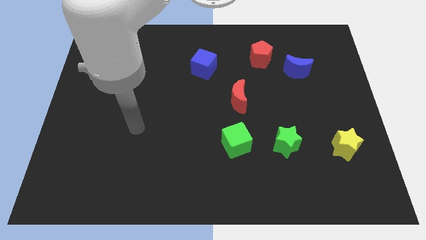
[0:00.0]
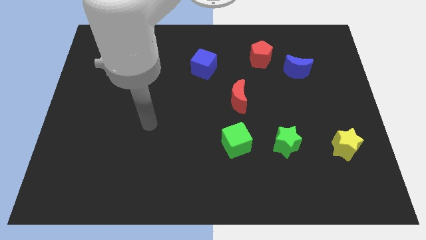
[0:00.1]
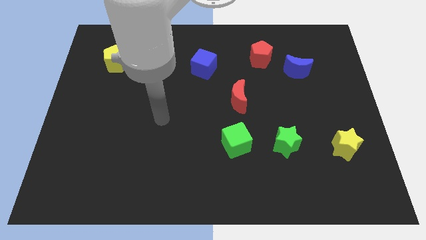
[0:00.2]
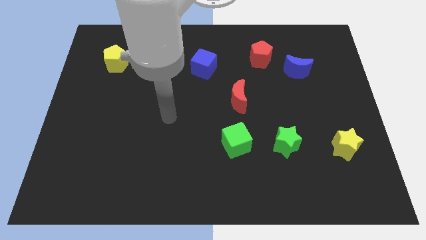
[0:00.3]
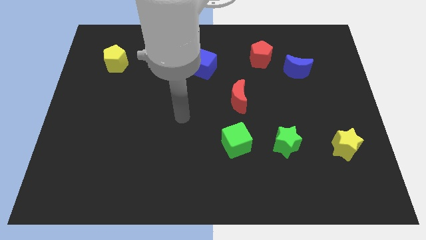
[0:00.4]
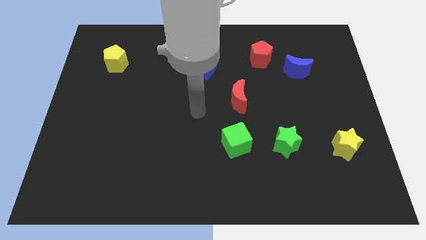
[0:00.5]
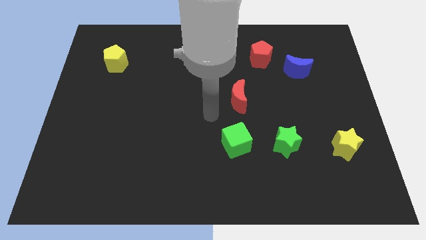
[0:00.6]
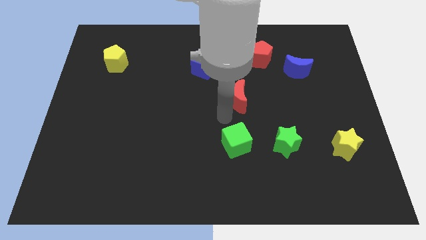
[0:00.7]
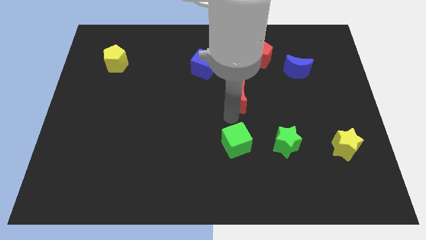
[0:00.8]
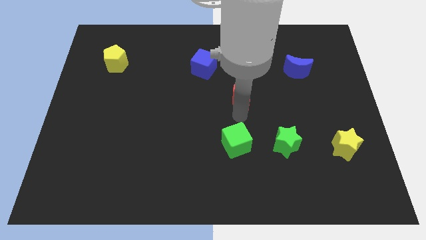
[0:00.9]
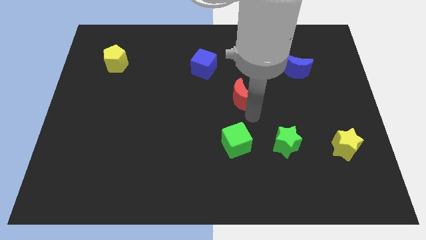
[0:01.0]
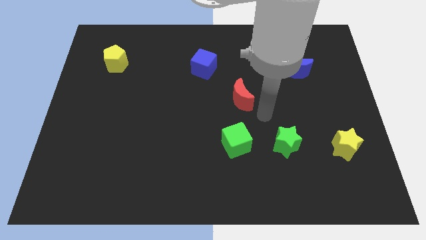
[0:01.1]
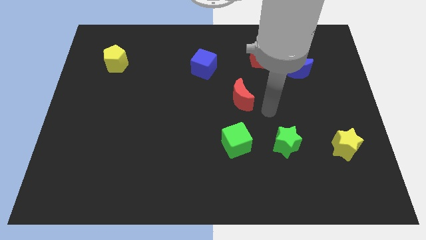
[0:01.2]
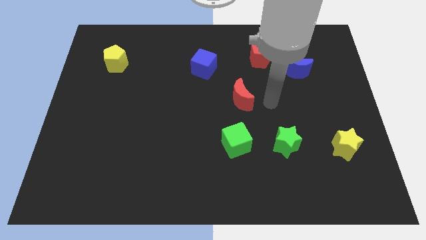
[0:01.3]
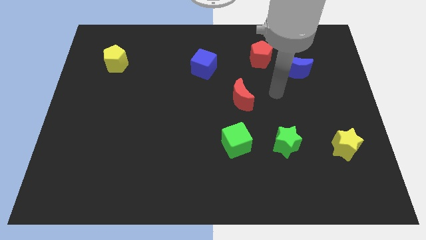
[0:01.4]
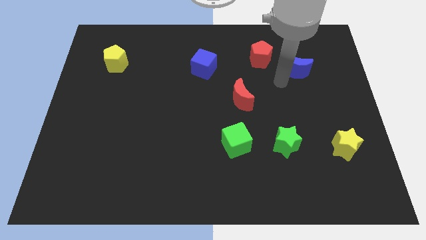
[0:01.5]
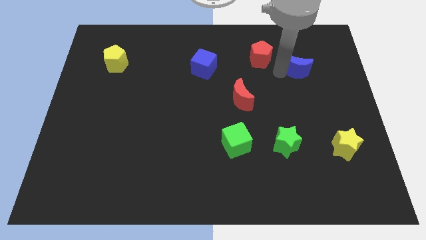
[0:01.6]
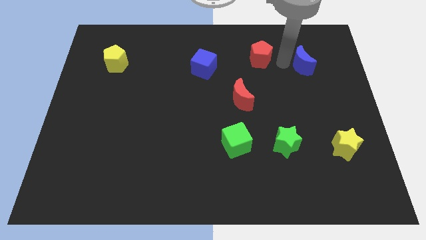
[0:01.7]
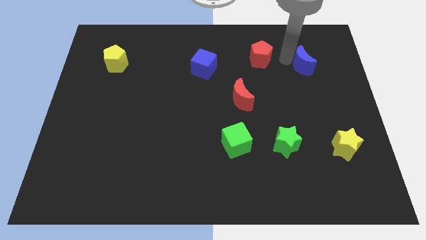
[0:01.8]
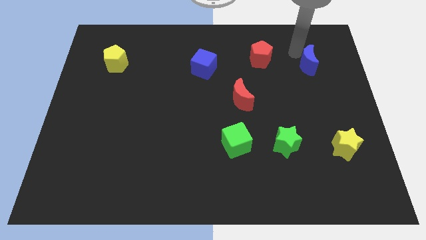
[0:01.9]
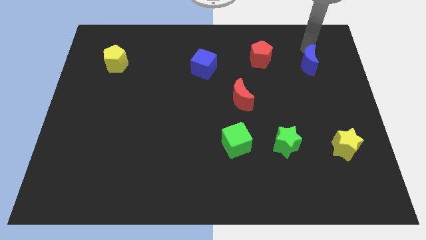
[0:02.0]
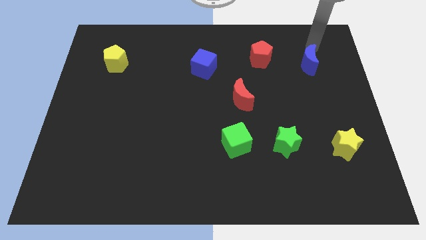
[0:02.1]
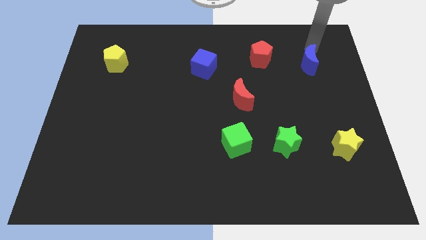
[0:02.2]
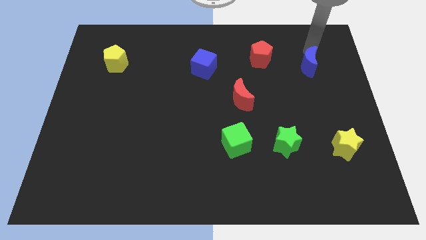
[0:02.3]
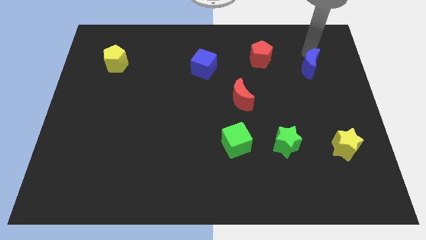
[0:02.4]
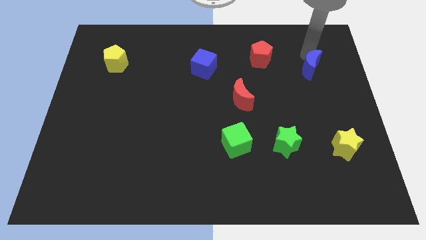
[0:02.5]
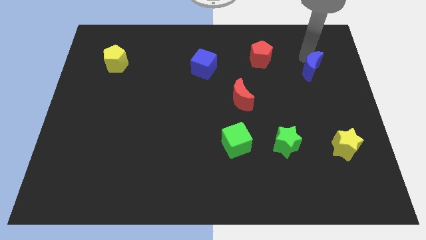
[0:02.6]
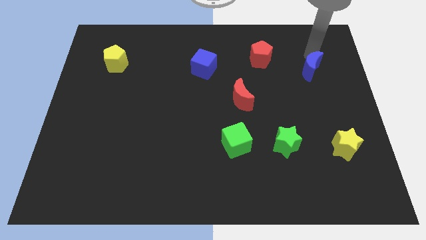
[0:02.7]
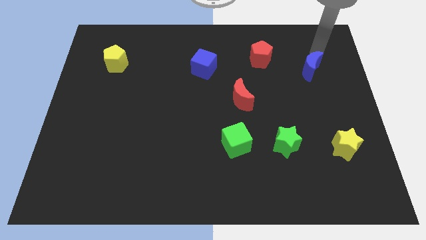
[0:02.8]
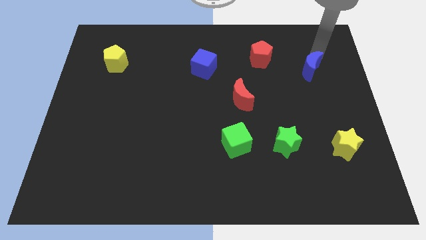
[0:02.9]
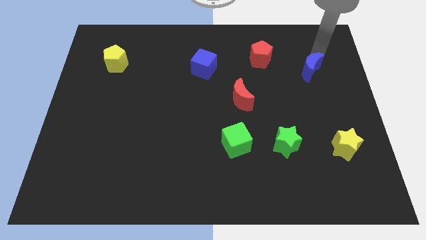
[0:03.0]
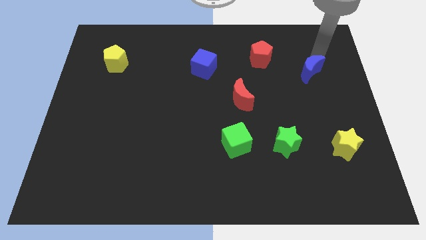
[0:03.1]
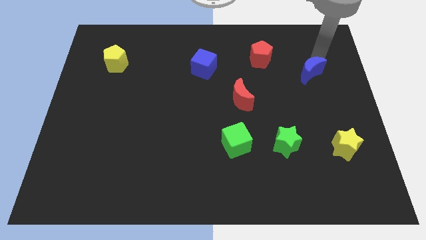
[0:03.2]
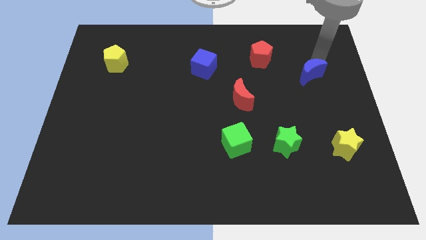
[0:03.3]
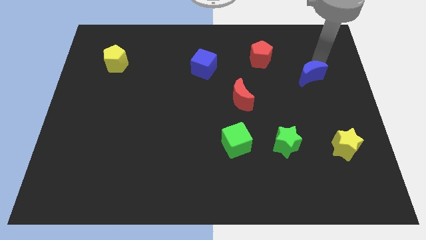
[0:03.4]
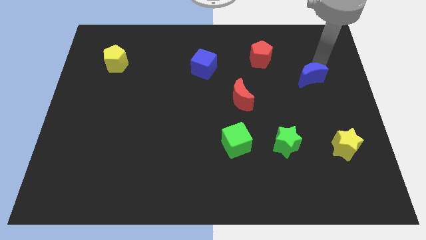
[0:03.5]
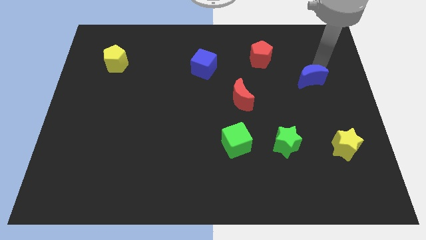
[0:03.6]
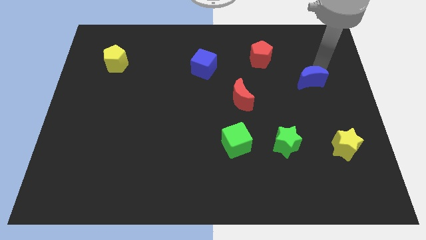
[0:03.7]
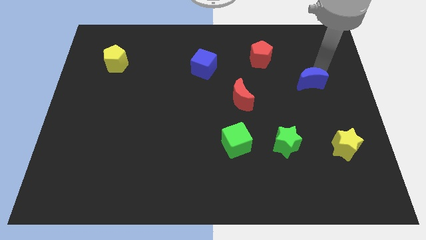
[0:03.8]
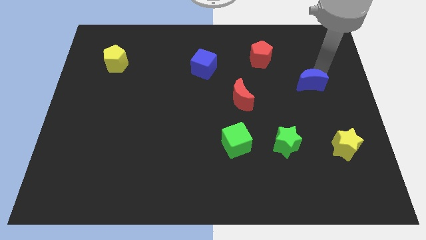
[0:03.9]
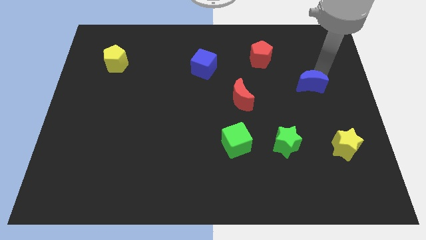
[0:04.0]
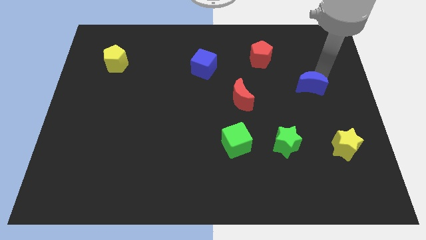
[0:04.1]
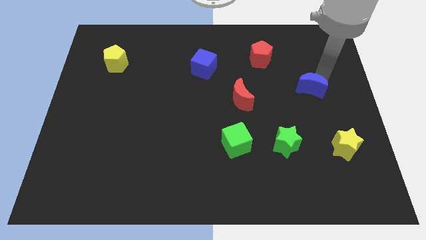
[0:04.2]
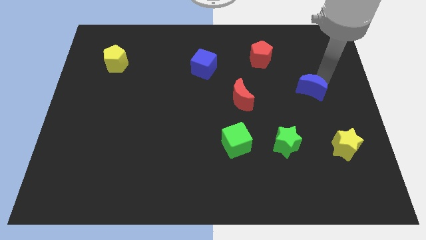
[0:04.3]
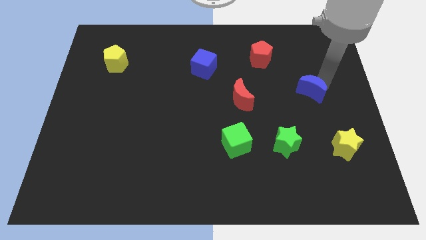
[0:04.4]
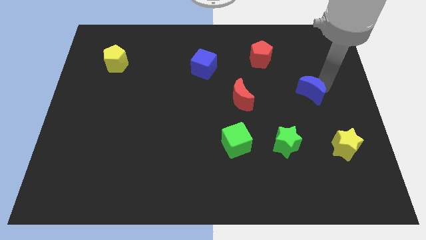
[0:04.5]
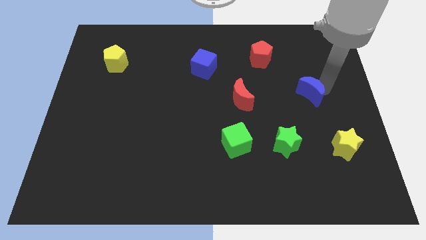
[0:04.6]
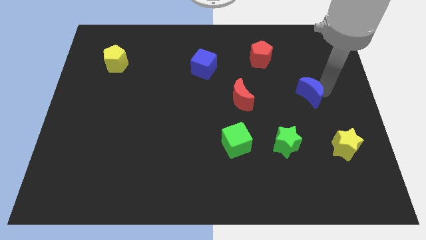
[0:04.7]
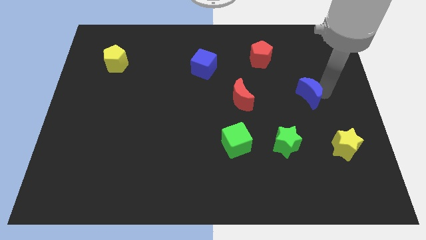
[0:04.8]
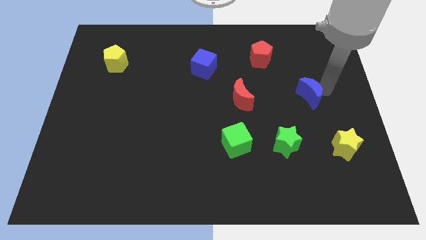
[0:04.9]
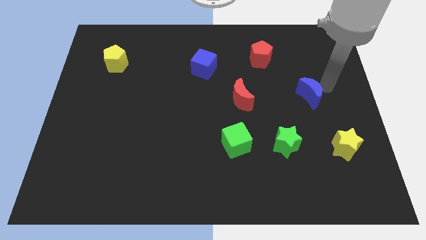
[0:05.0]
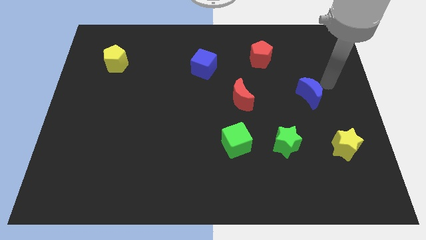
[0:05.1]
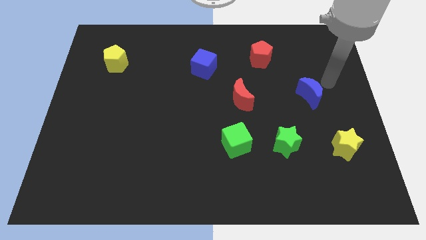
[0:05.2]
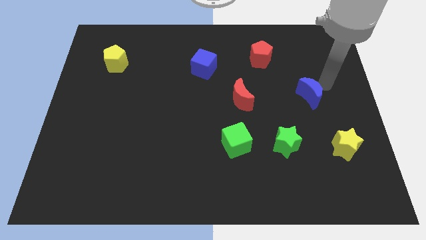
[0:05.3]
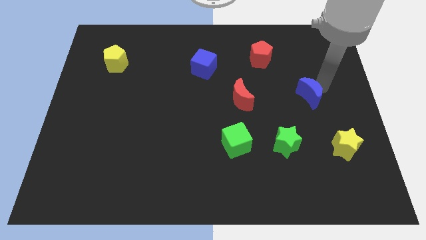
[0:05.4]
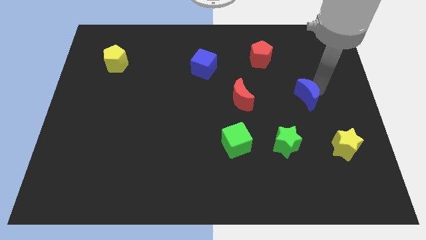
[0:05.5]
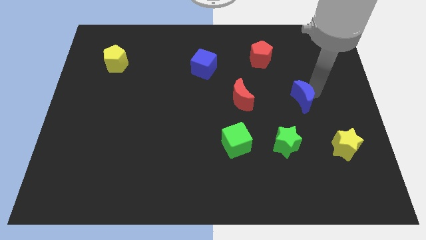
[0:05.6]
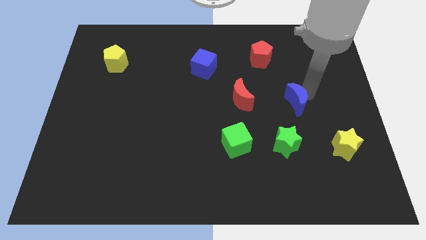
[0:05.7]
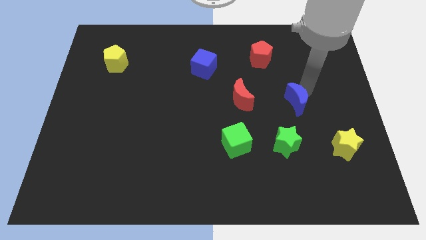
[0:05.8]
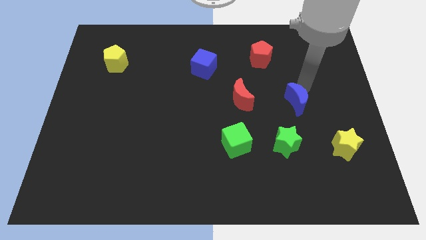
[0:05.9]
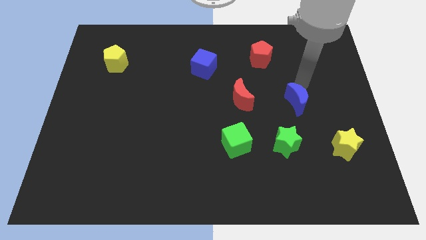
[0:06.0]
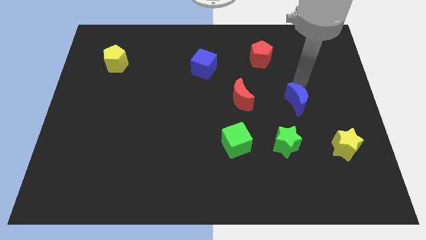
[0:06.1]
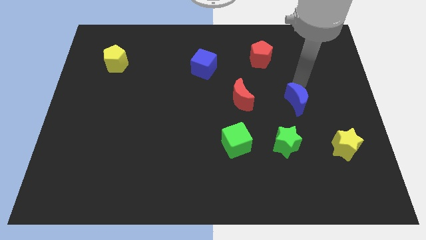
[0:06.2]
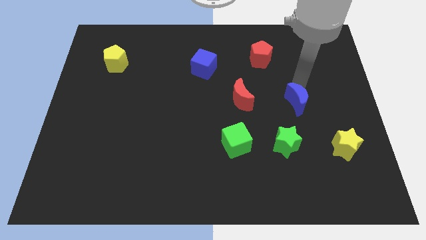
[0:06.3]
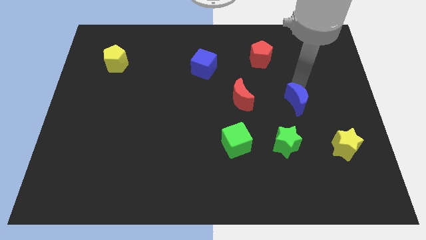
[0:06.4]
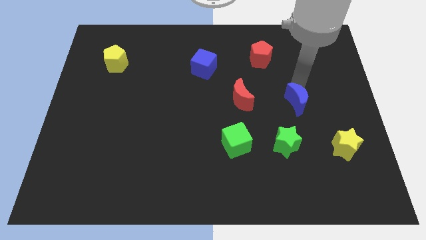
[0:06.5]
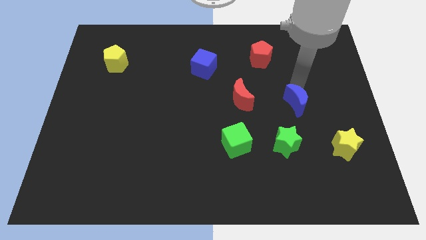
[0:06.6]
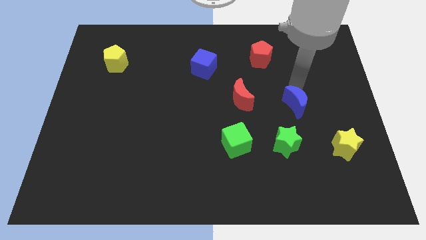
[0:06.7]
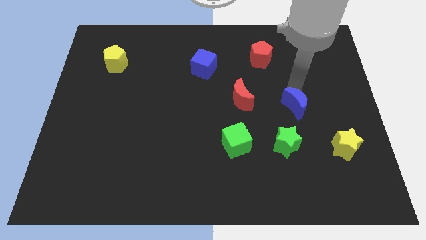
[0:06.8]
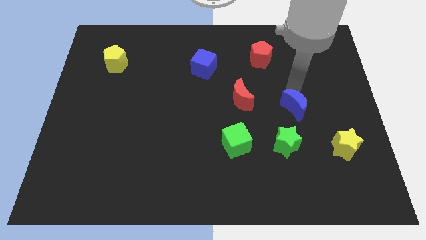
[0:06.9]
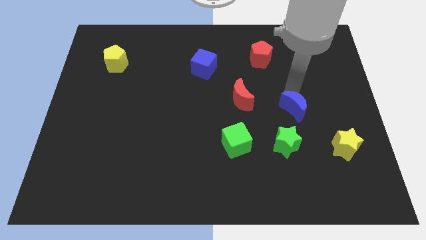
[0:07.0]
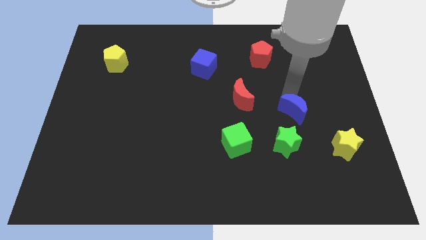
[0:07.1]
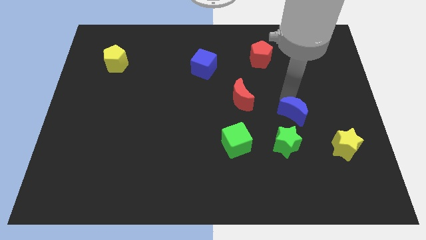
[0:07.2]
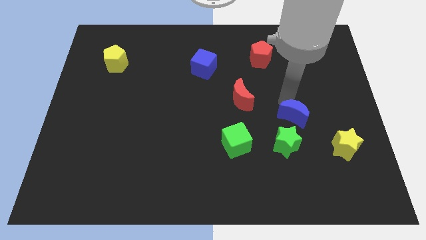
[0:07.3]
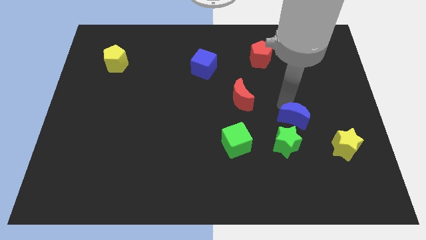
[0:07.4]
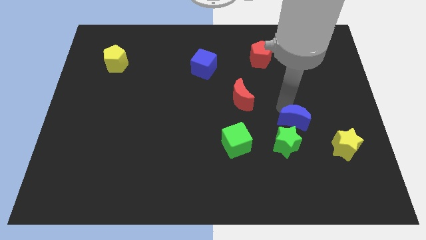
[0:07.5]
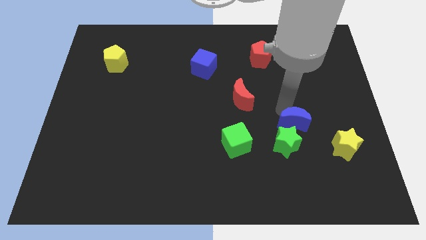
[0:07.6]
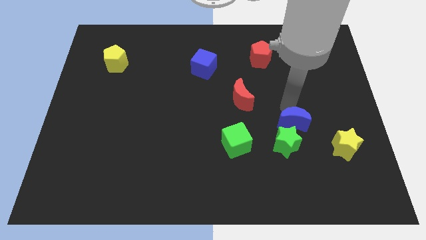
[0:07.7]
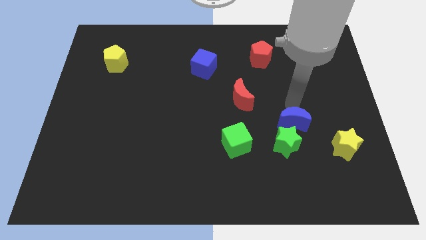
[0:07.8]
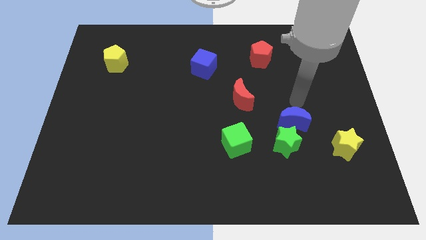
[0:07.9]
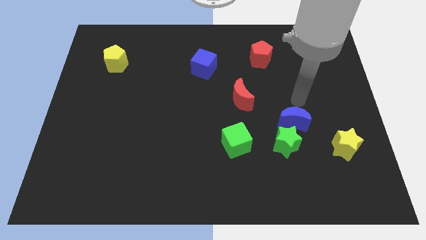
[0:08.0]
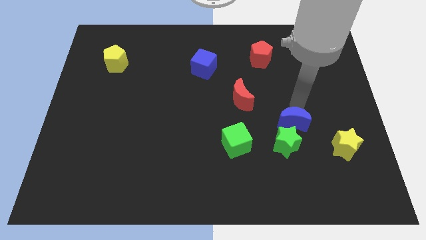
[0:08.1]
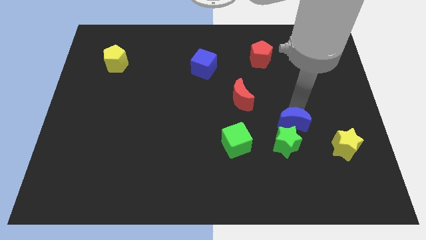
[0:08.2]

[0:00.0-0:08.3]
move the blue moon next to the green star
